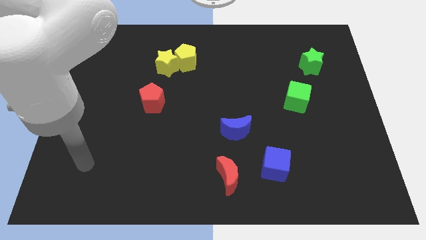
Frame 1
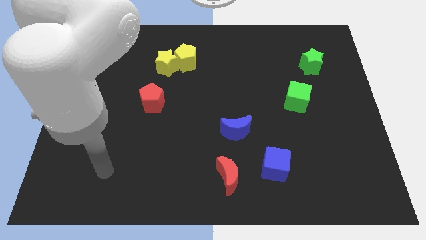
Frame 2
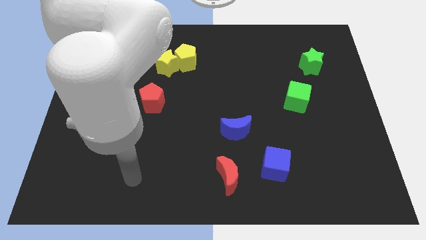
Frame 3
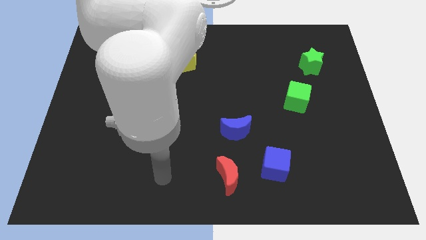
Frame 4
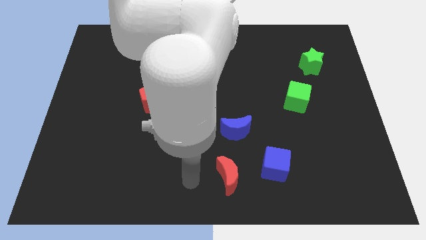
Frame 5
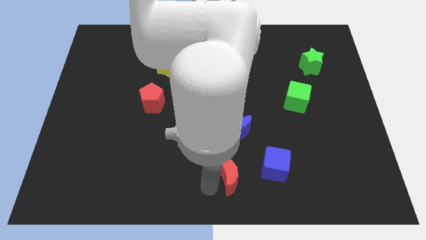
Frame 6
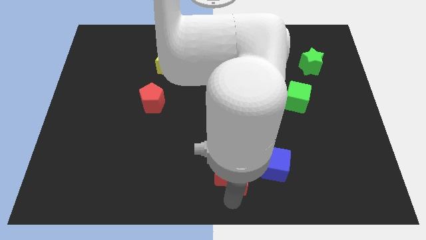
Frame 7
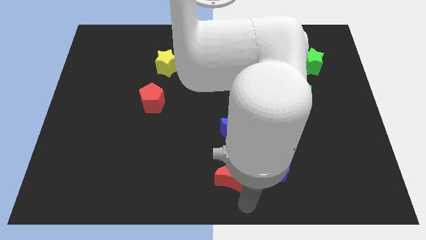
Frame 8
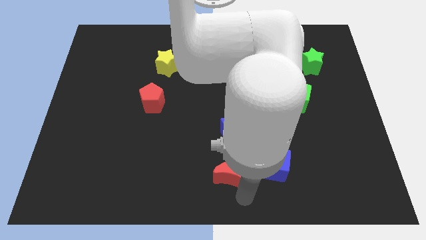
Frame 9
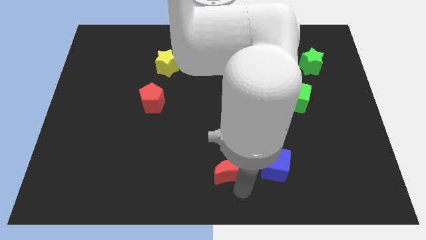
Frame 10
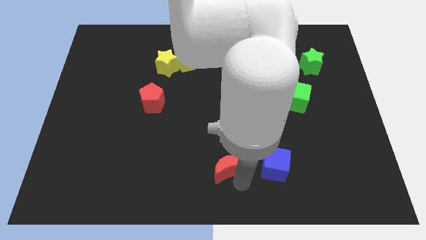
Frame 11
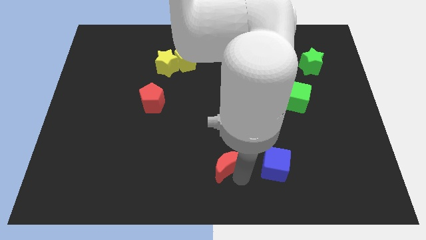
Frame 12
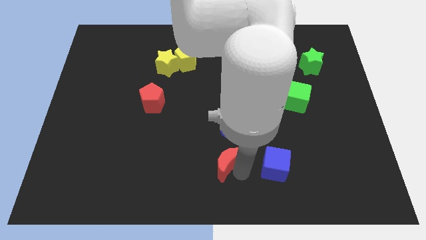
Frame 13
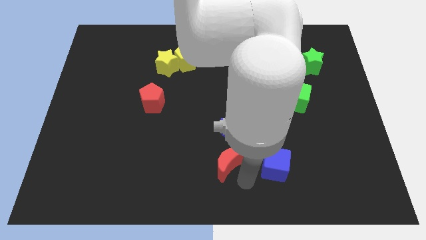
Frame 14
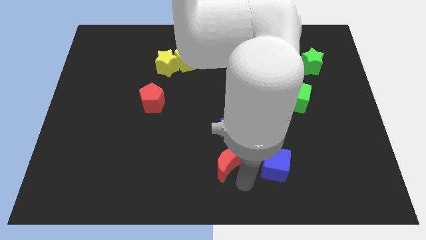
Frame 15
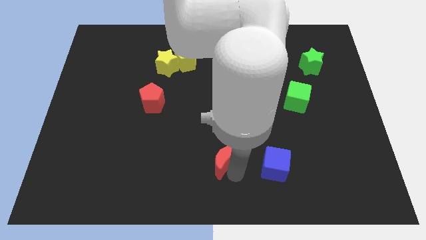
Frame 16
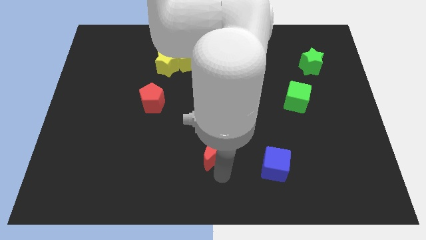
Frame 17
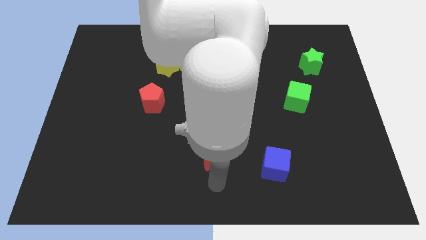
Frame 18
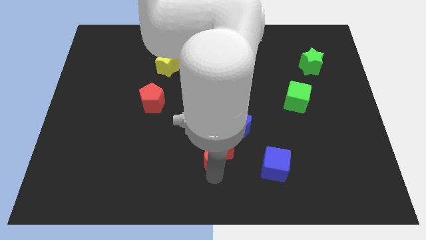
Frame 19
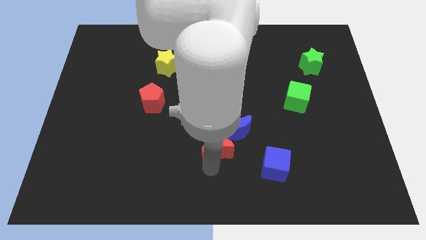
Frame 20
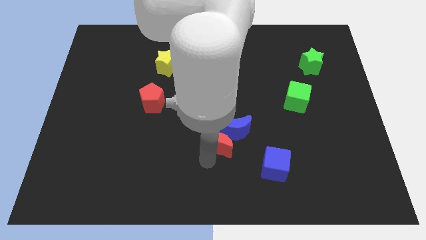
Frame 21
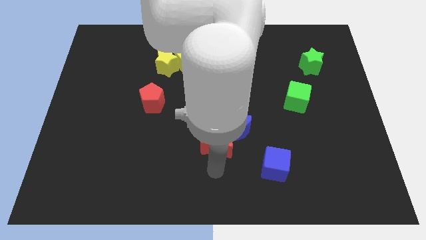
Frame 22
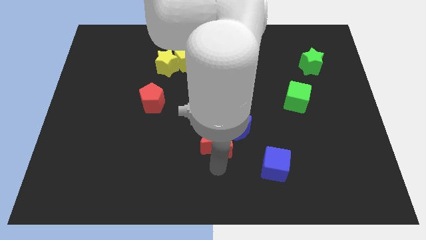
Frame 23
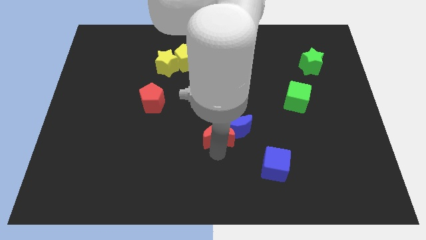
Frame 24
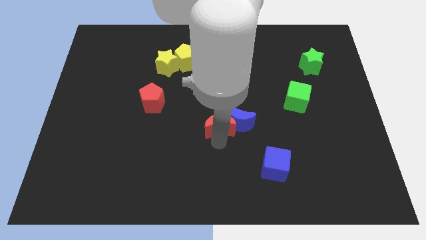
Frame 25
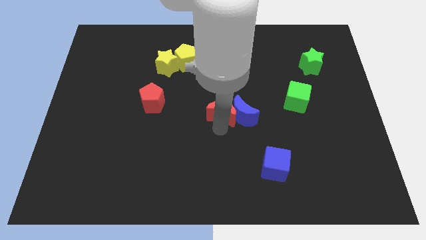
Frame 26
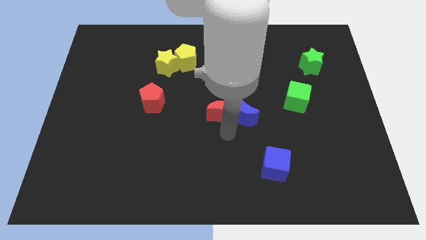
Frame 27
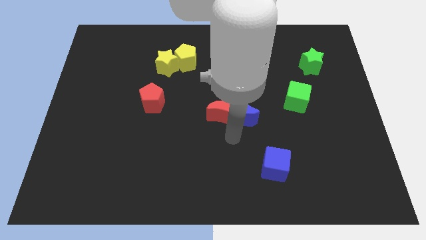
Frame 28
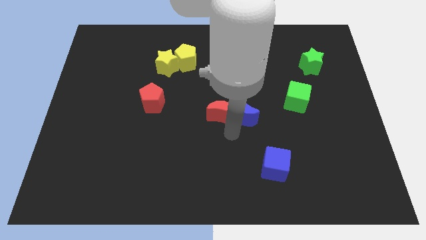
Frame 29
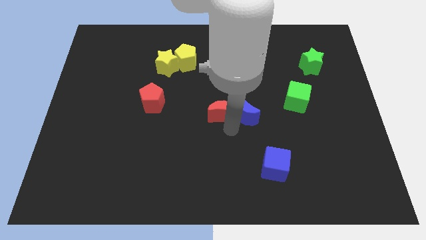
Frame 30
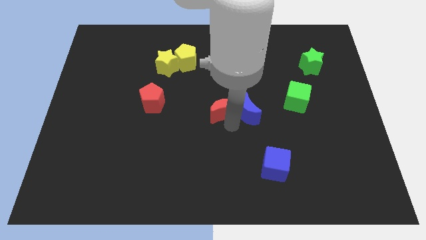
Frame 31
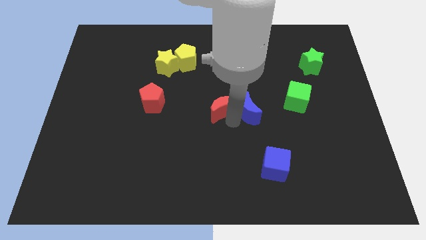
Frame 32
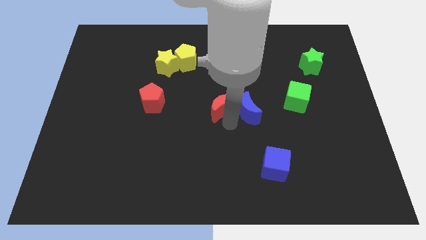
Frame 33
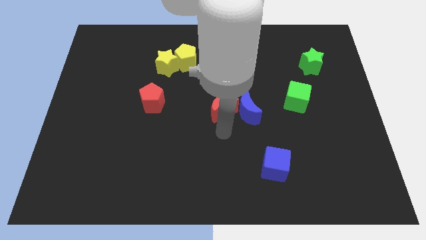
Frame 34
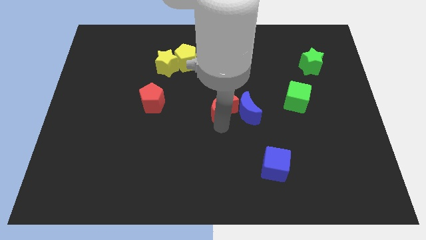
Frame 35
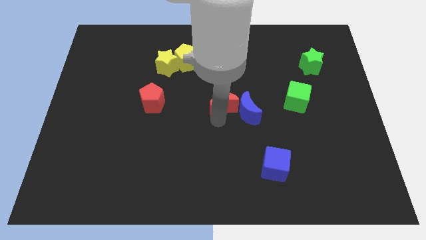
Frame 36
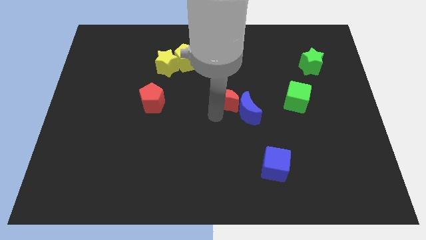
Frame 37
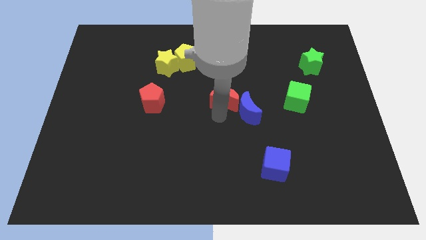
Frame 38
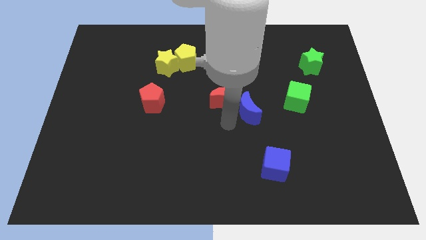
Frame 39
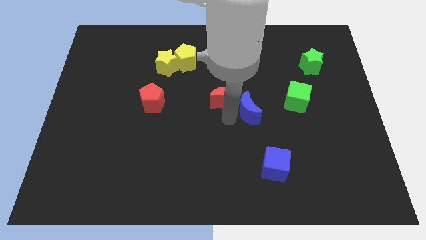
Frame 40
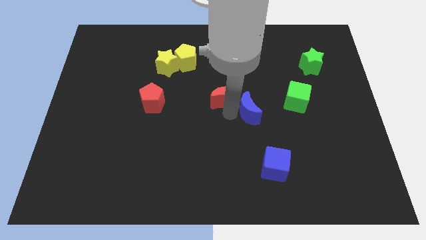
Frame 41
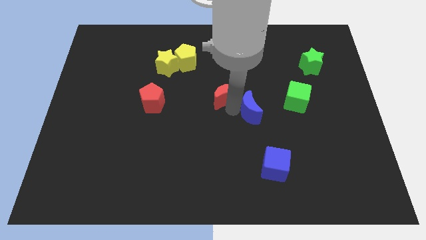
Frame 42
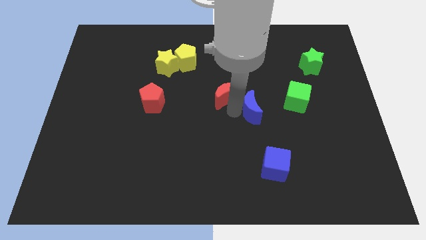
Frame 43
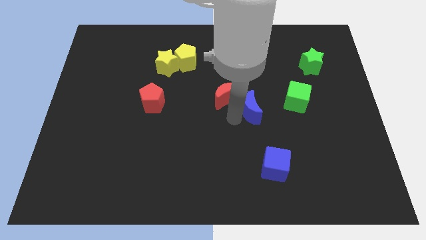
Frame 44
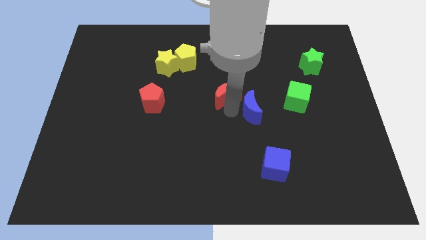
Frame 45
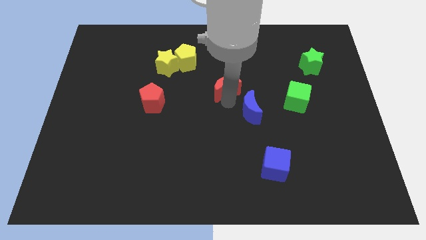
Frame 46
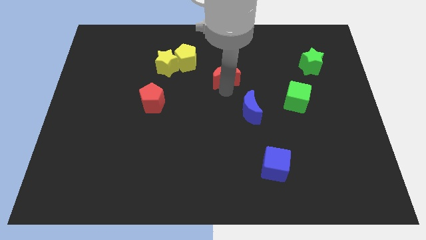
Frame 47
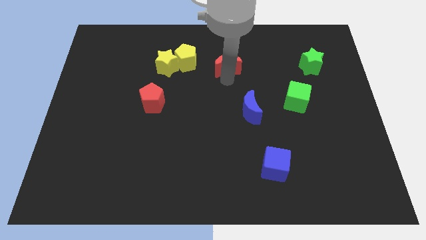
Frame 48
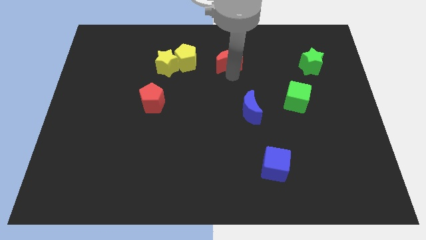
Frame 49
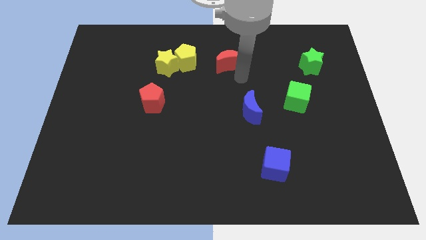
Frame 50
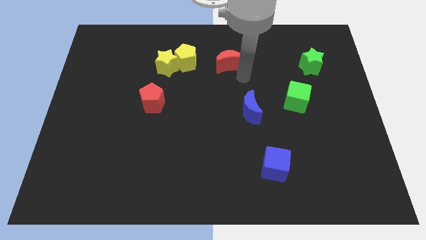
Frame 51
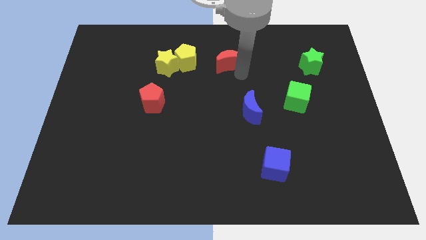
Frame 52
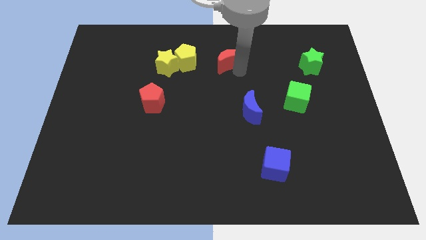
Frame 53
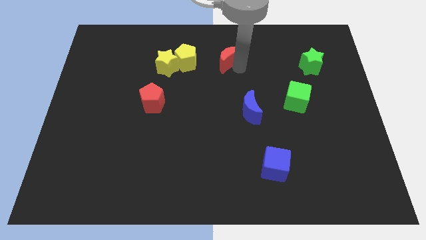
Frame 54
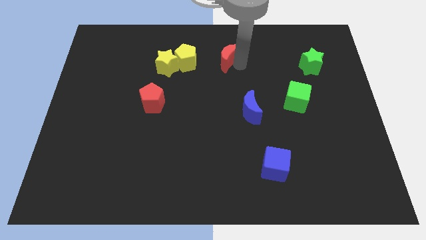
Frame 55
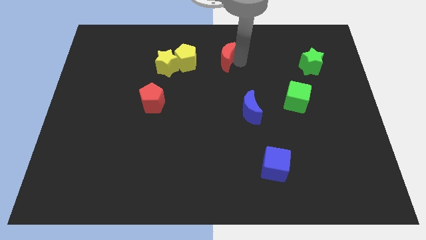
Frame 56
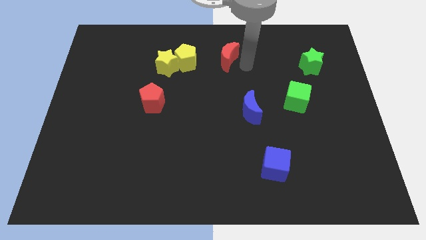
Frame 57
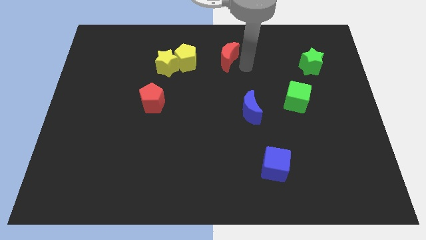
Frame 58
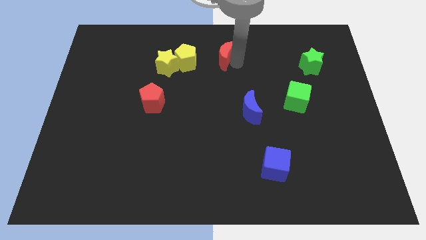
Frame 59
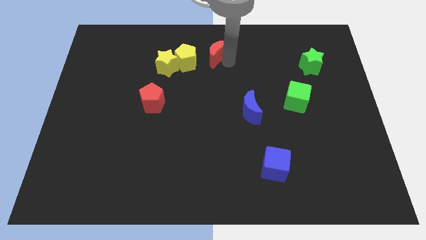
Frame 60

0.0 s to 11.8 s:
slide the red moon to the top
